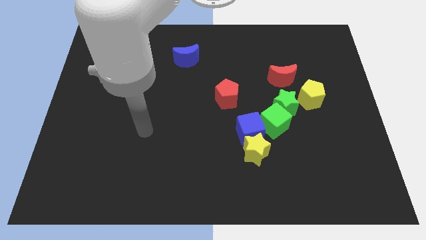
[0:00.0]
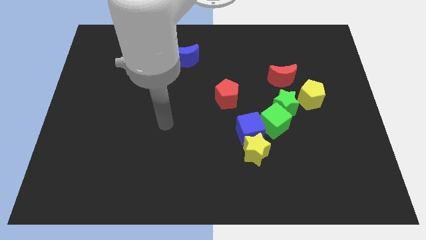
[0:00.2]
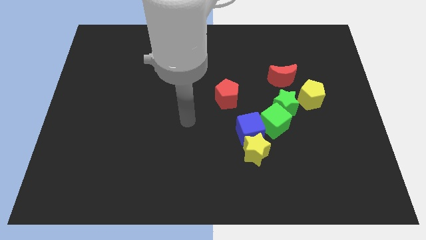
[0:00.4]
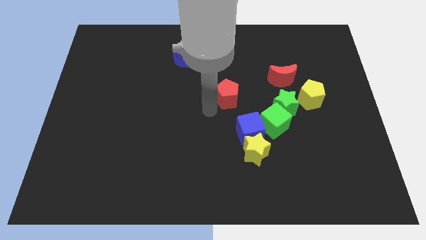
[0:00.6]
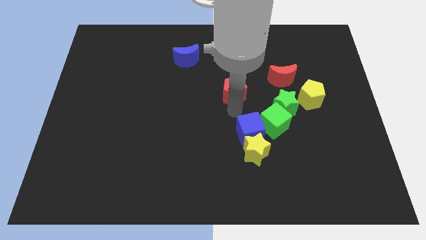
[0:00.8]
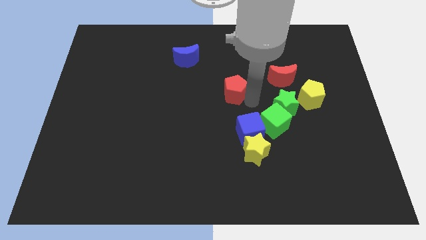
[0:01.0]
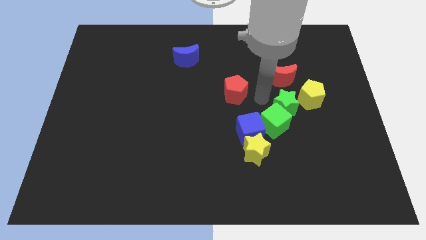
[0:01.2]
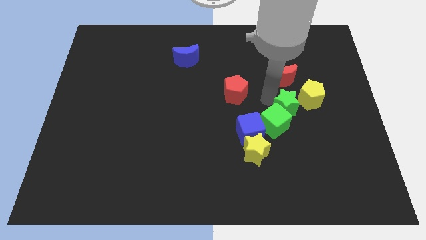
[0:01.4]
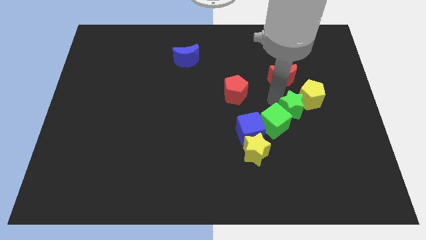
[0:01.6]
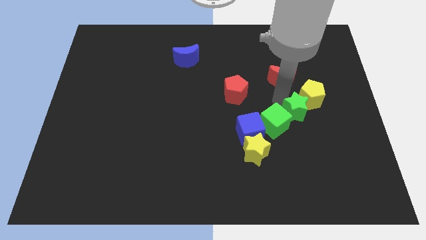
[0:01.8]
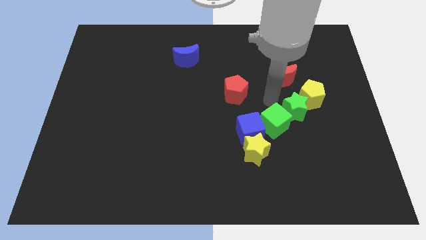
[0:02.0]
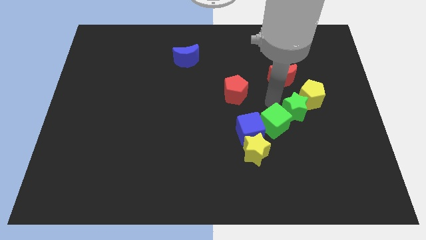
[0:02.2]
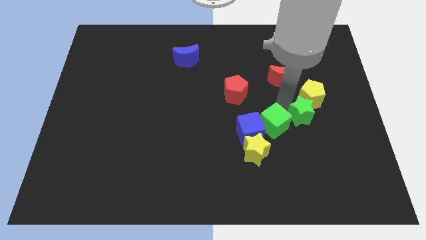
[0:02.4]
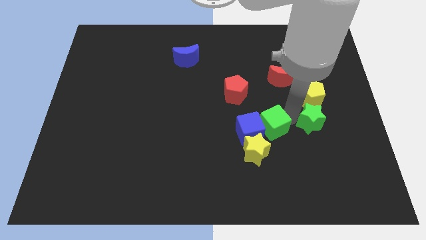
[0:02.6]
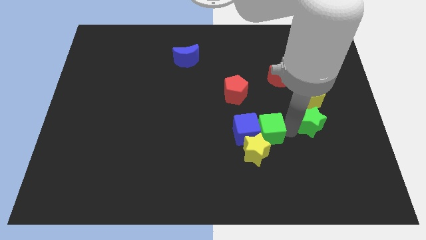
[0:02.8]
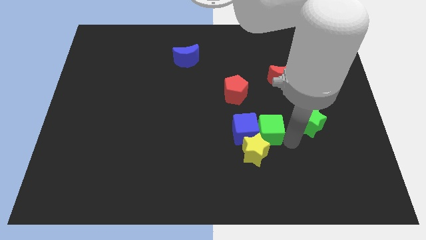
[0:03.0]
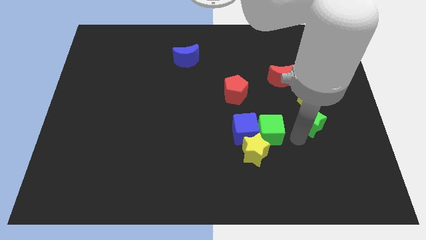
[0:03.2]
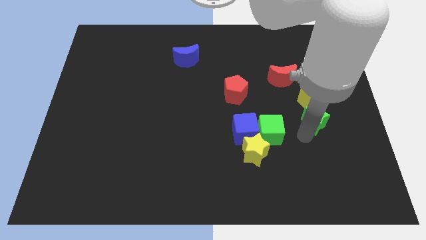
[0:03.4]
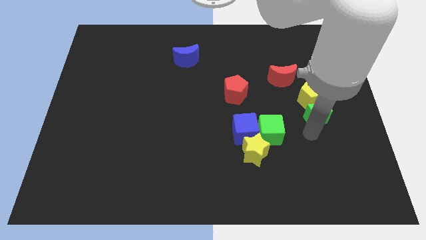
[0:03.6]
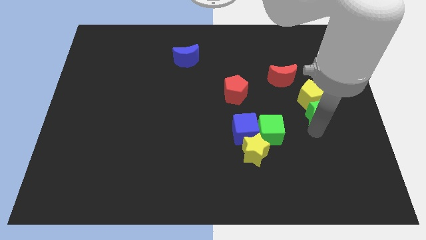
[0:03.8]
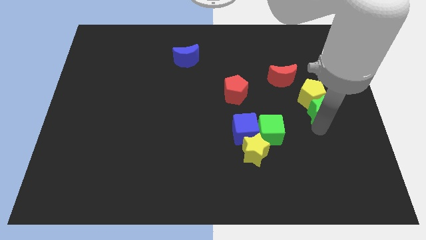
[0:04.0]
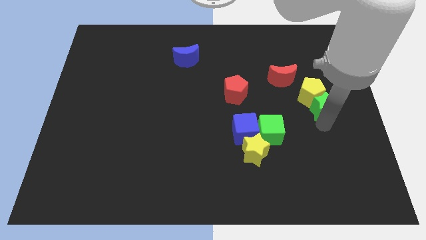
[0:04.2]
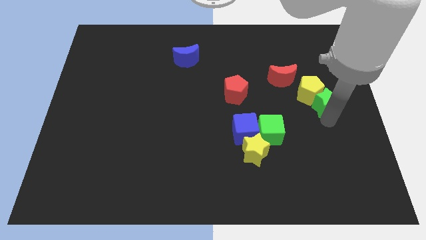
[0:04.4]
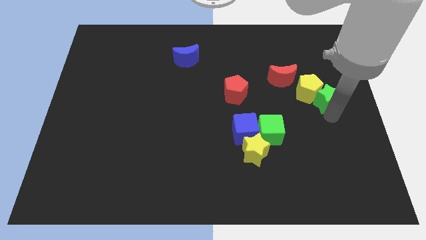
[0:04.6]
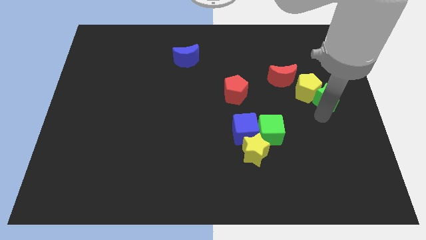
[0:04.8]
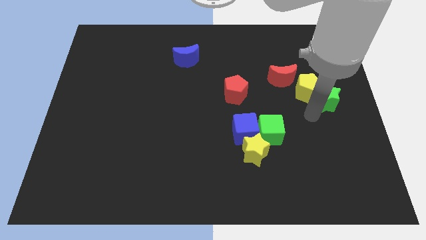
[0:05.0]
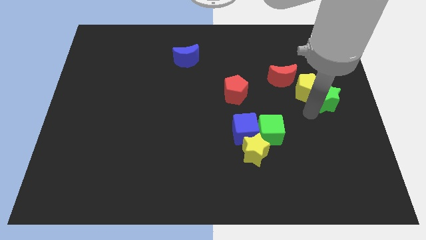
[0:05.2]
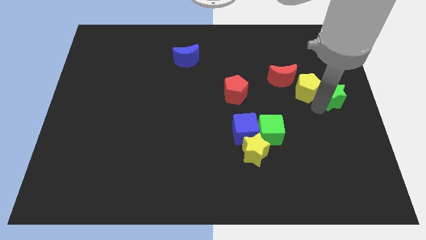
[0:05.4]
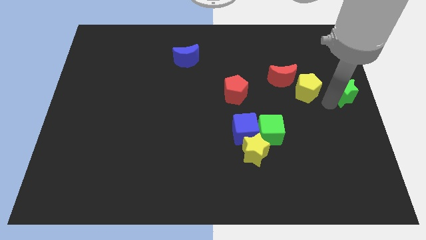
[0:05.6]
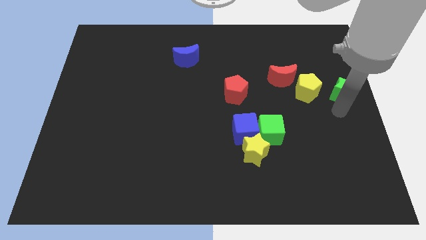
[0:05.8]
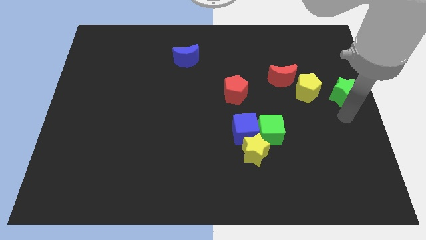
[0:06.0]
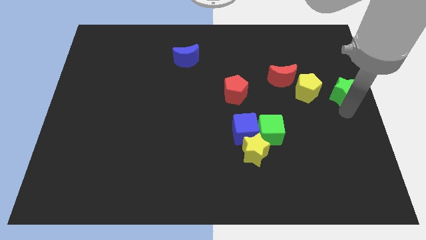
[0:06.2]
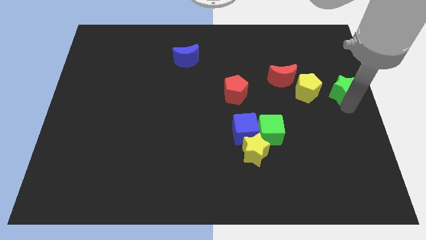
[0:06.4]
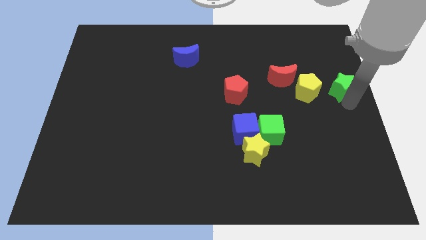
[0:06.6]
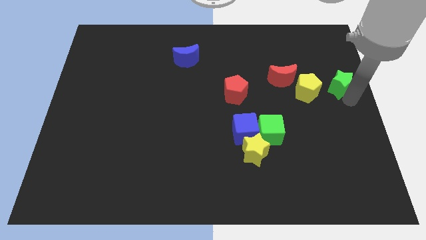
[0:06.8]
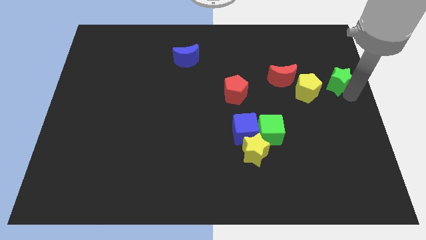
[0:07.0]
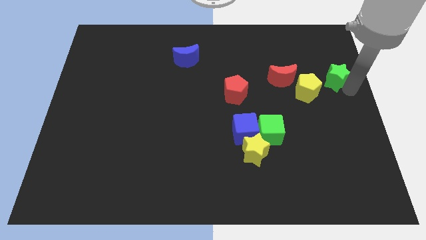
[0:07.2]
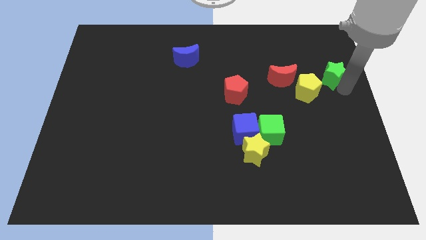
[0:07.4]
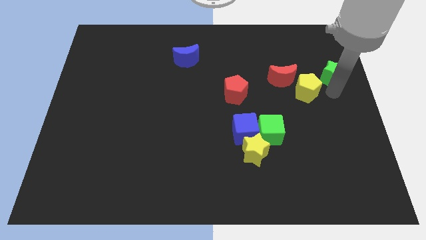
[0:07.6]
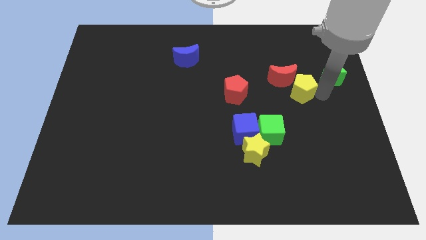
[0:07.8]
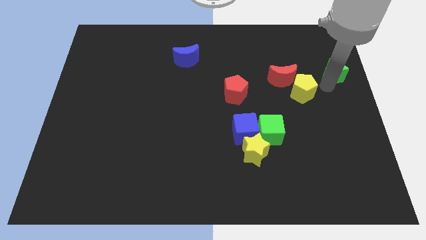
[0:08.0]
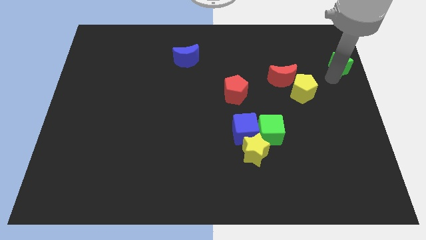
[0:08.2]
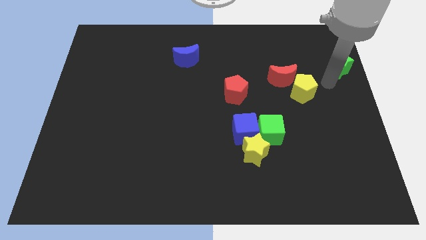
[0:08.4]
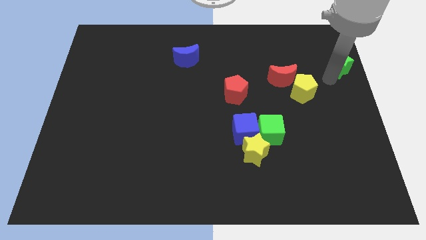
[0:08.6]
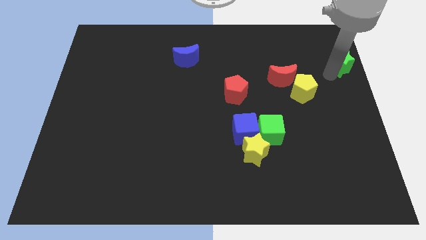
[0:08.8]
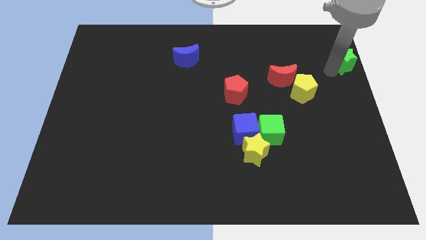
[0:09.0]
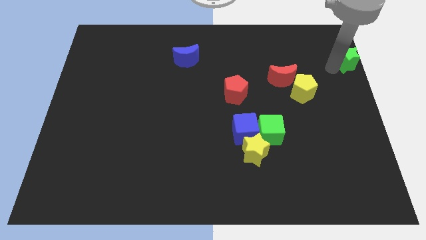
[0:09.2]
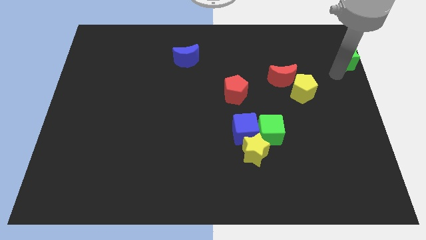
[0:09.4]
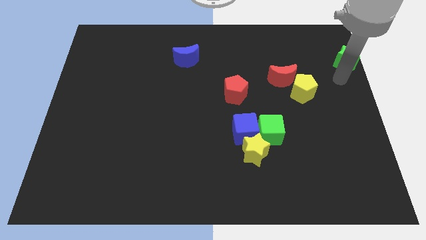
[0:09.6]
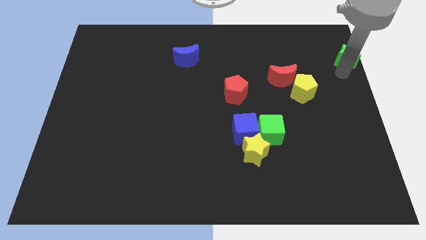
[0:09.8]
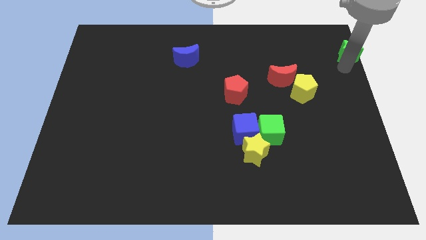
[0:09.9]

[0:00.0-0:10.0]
slide the green star to the top right of the board

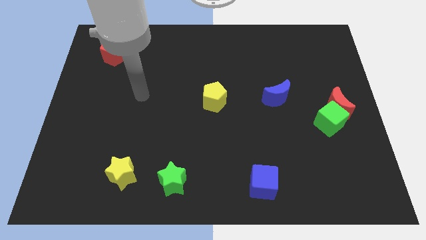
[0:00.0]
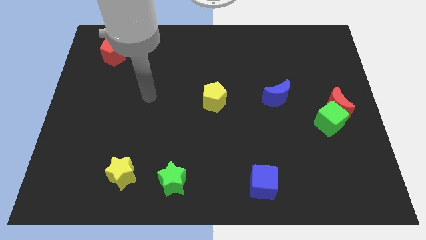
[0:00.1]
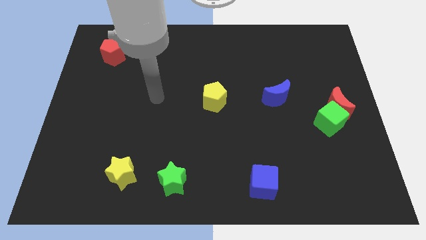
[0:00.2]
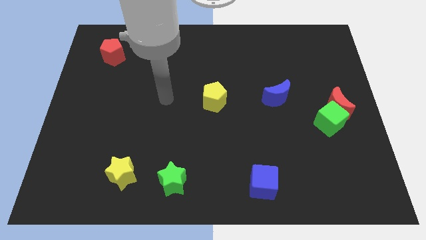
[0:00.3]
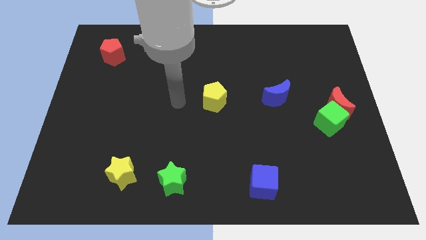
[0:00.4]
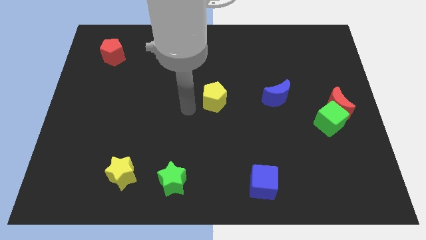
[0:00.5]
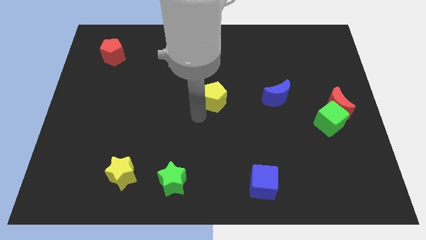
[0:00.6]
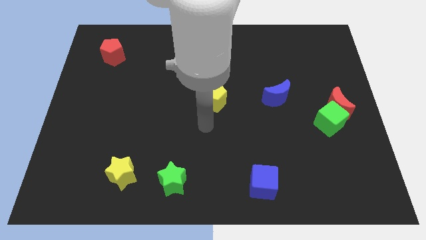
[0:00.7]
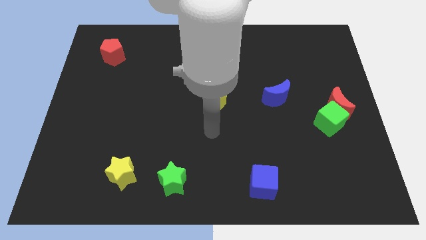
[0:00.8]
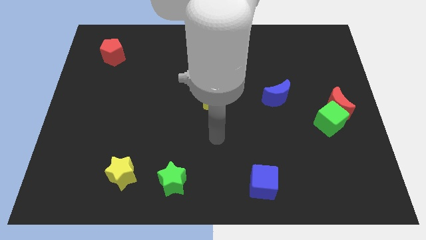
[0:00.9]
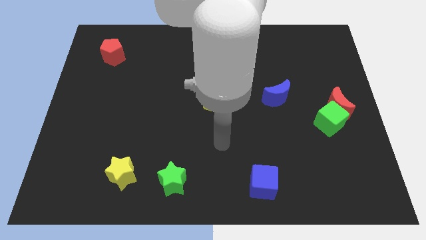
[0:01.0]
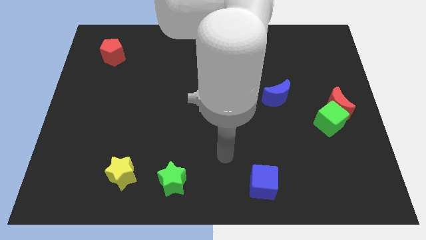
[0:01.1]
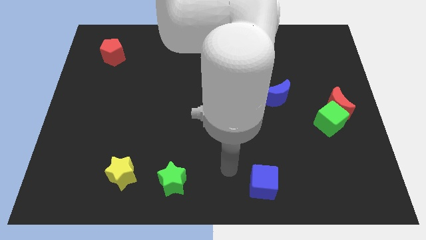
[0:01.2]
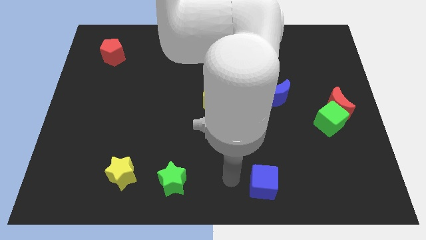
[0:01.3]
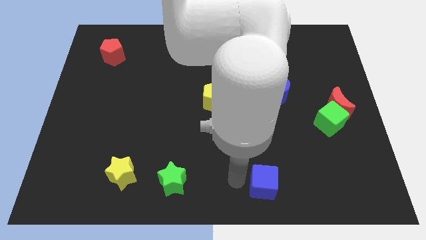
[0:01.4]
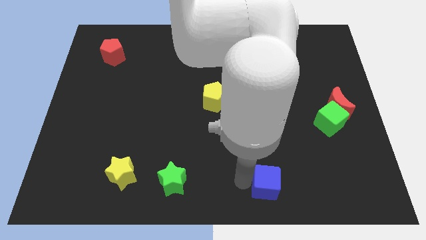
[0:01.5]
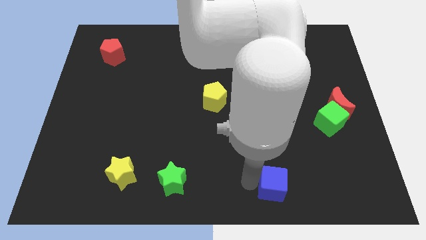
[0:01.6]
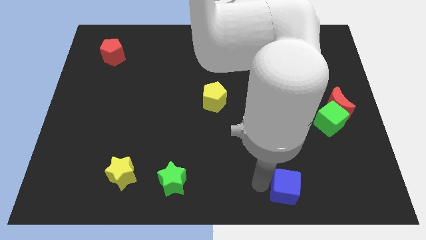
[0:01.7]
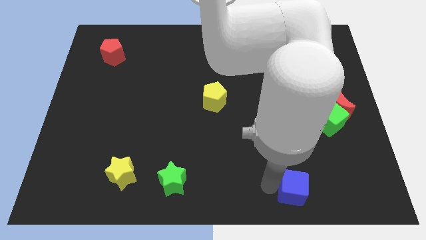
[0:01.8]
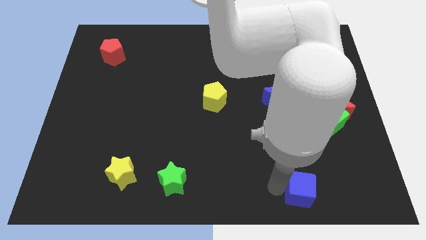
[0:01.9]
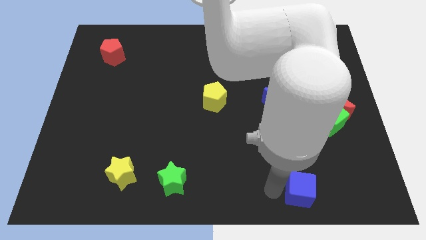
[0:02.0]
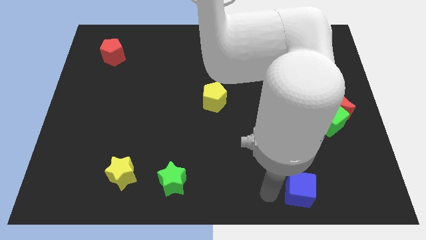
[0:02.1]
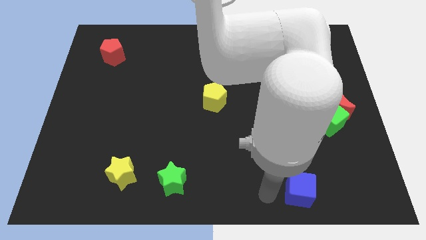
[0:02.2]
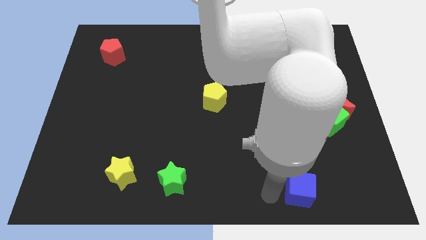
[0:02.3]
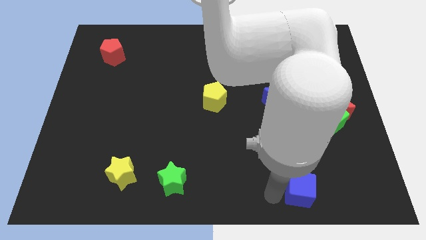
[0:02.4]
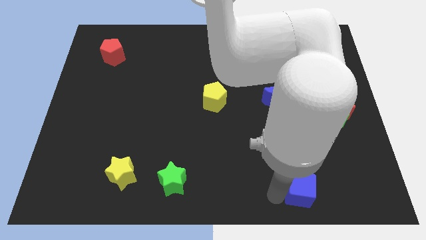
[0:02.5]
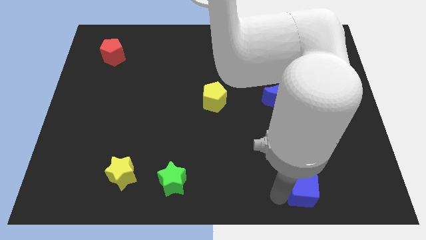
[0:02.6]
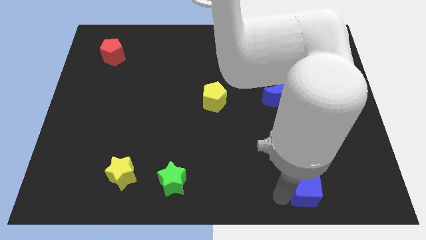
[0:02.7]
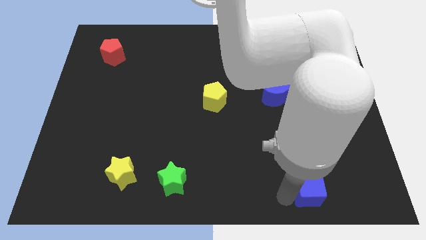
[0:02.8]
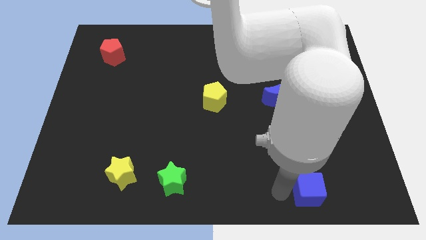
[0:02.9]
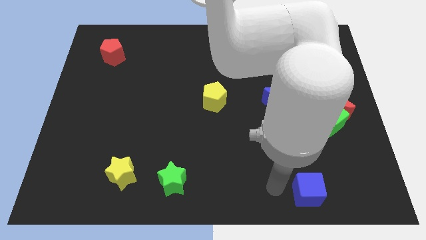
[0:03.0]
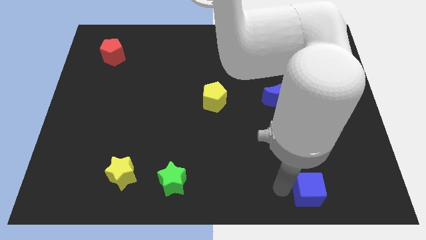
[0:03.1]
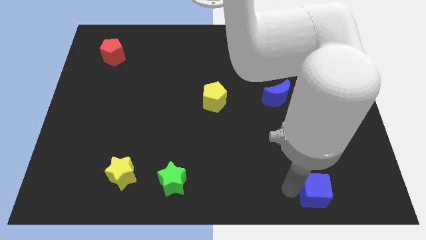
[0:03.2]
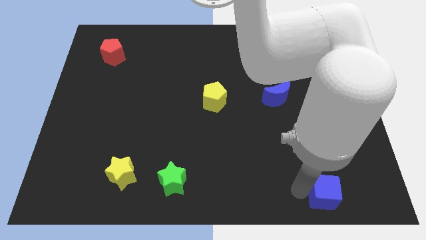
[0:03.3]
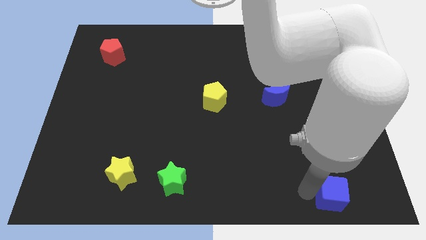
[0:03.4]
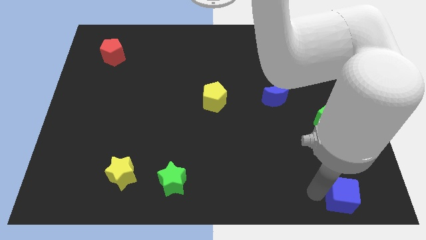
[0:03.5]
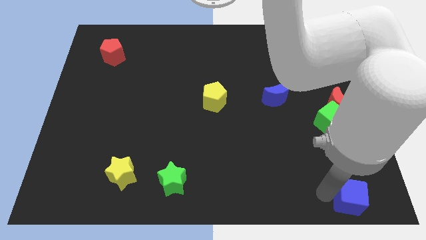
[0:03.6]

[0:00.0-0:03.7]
slide the blue cube to the bottom right
